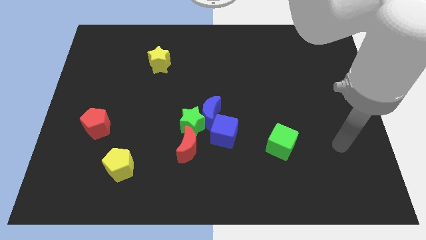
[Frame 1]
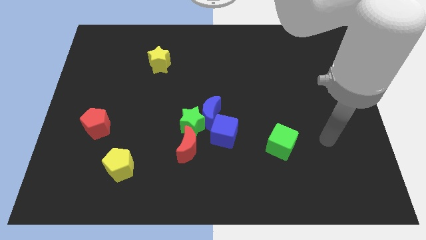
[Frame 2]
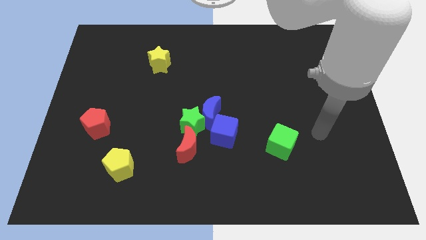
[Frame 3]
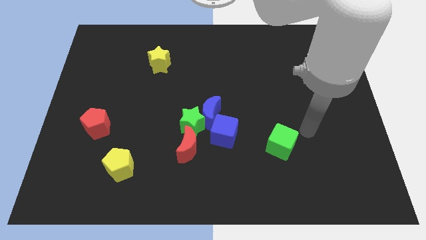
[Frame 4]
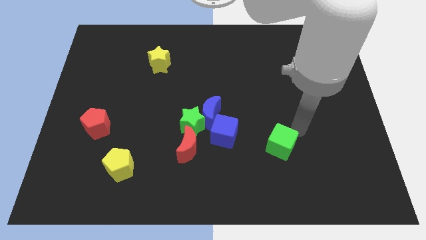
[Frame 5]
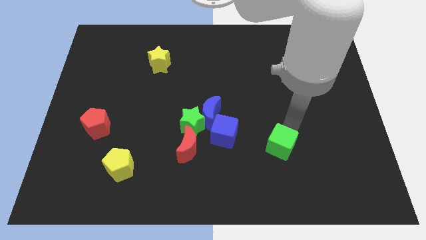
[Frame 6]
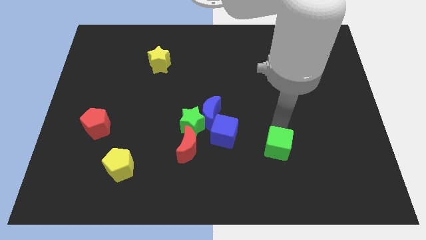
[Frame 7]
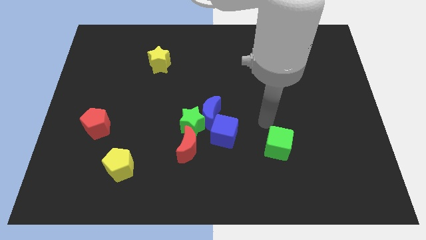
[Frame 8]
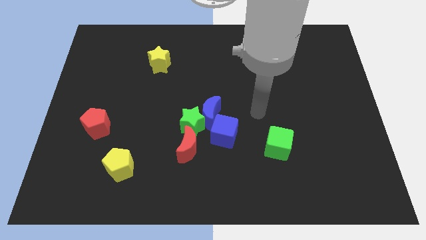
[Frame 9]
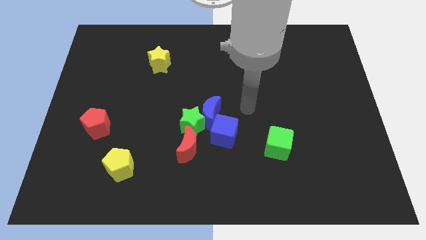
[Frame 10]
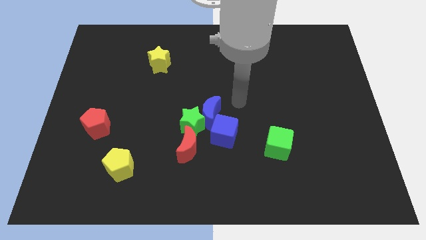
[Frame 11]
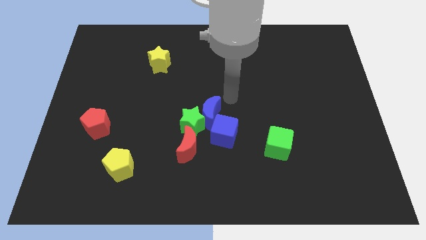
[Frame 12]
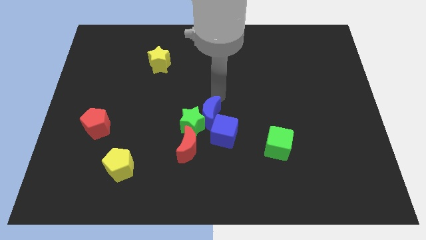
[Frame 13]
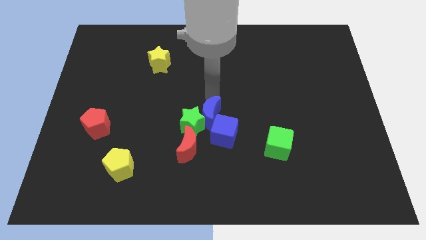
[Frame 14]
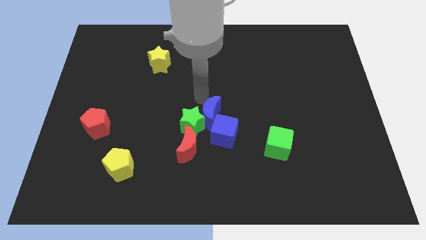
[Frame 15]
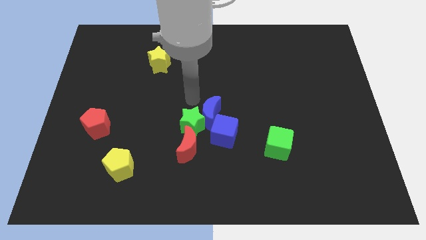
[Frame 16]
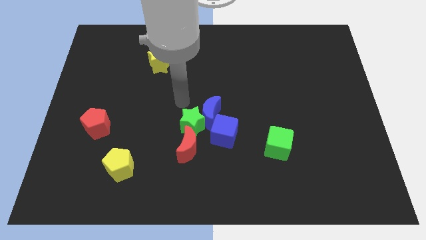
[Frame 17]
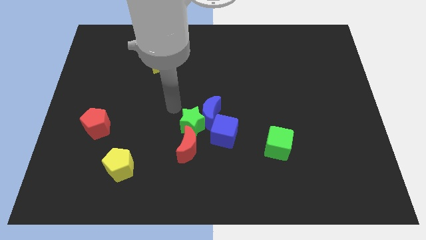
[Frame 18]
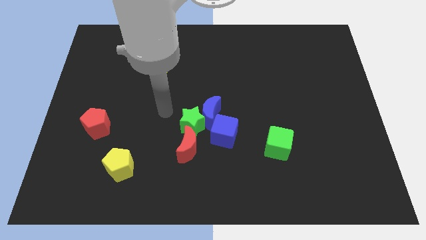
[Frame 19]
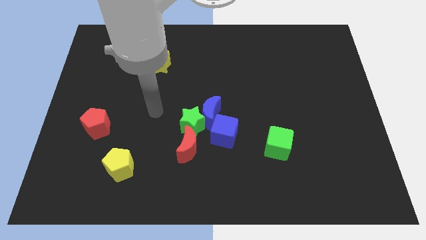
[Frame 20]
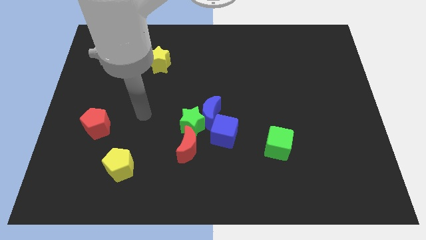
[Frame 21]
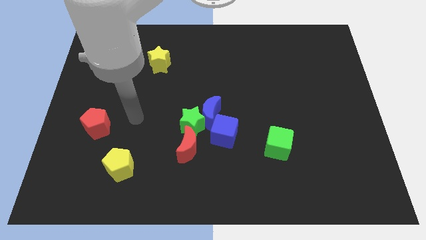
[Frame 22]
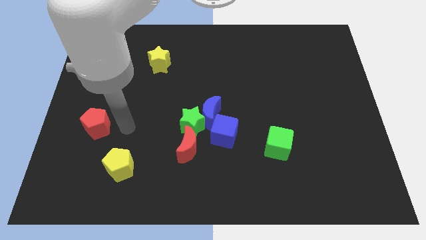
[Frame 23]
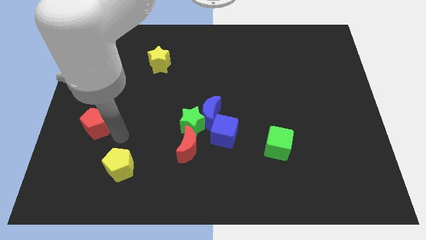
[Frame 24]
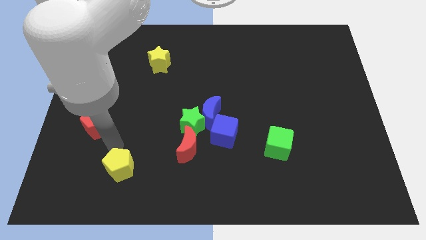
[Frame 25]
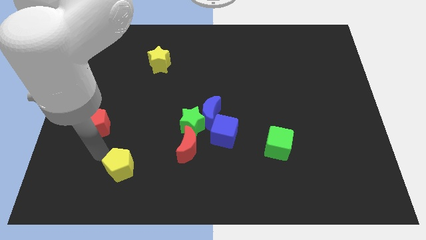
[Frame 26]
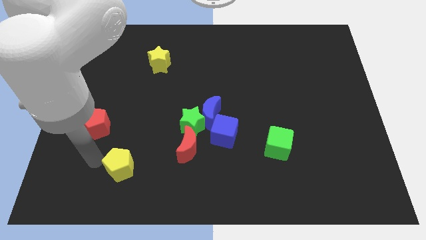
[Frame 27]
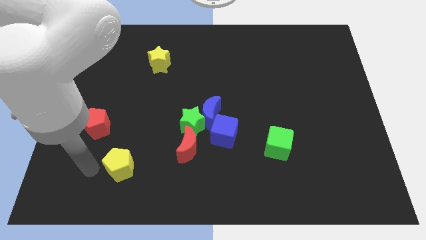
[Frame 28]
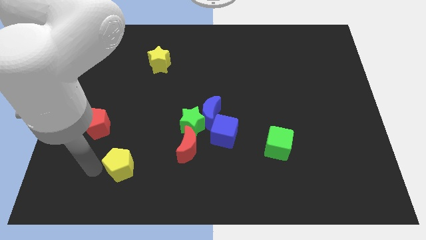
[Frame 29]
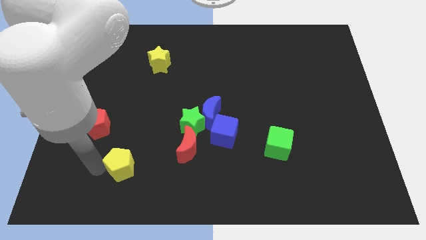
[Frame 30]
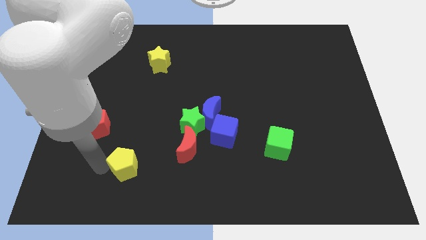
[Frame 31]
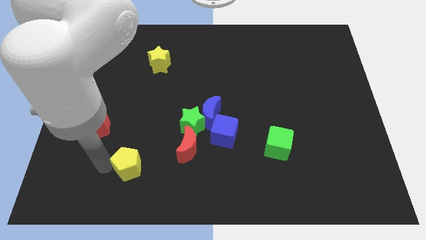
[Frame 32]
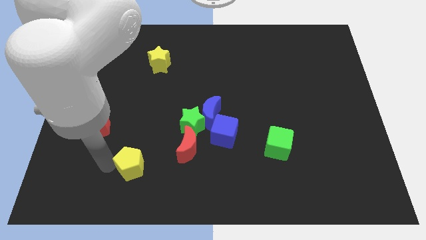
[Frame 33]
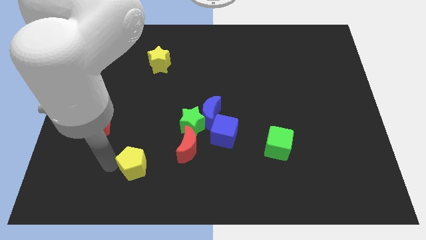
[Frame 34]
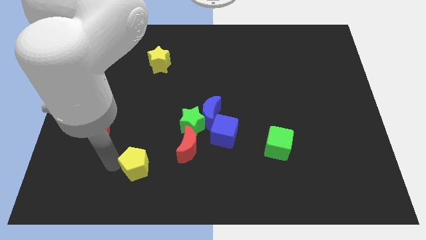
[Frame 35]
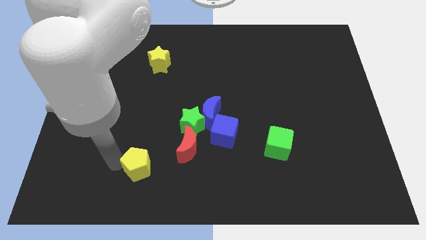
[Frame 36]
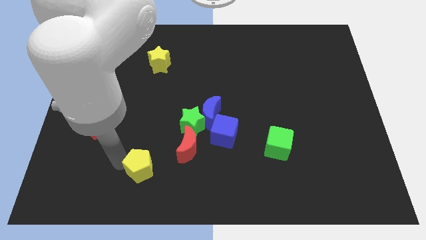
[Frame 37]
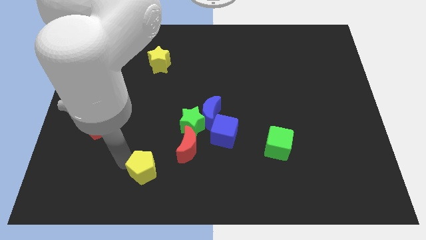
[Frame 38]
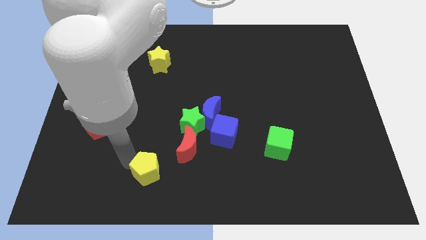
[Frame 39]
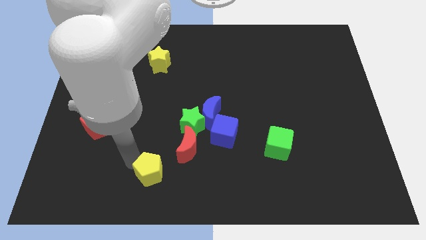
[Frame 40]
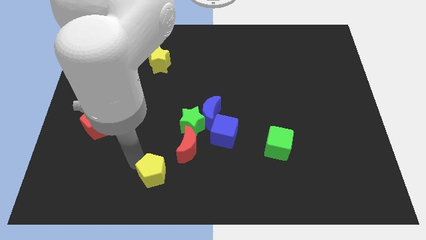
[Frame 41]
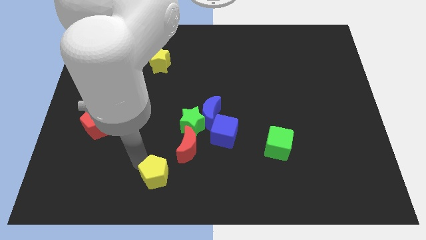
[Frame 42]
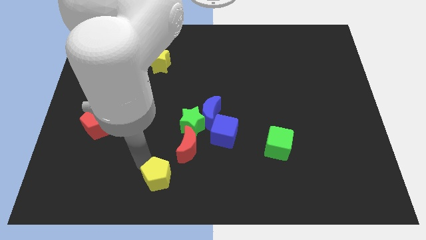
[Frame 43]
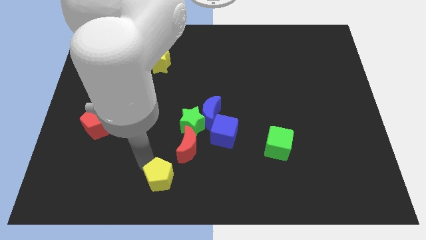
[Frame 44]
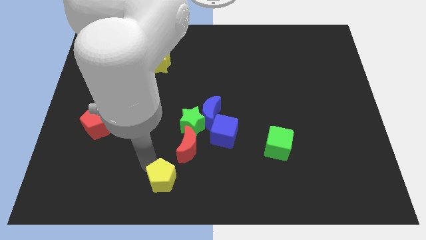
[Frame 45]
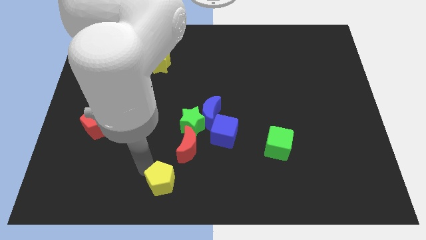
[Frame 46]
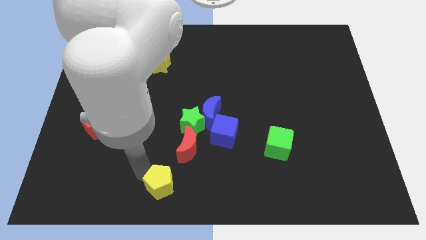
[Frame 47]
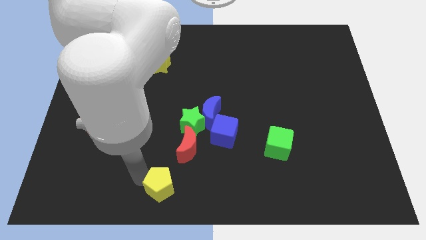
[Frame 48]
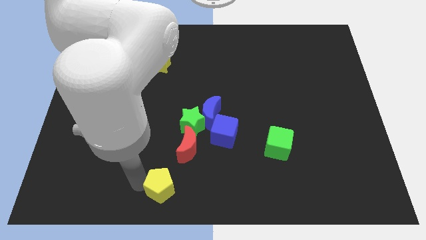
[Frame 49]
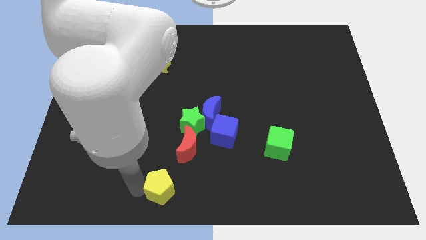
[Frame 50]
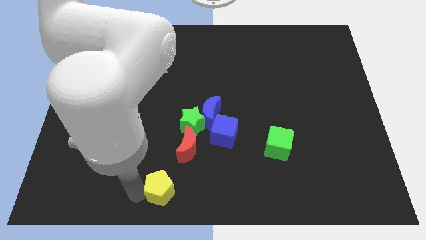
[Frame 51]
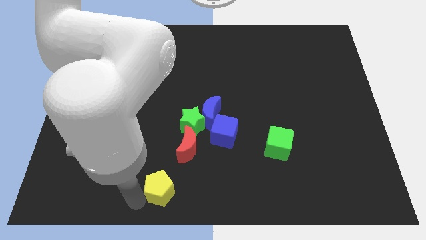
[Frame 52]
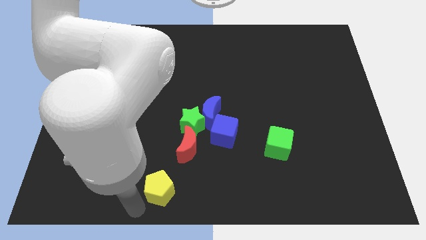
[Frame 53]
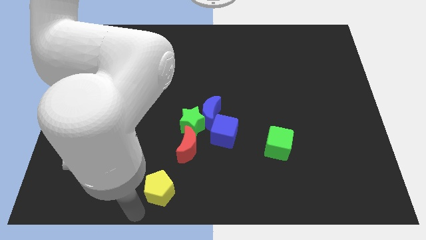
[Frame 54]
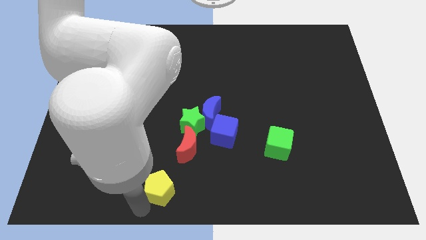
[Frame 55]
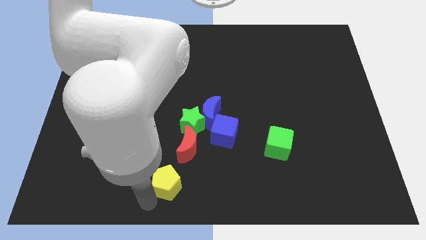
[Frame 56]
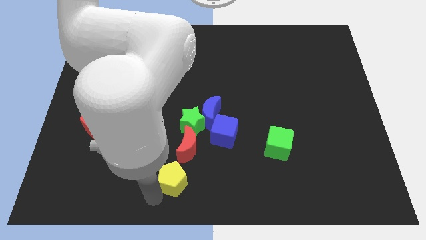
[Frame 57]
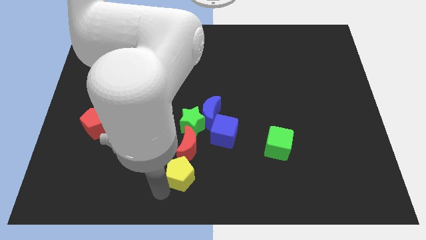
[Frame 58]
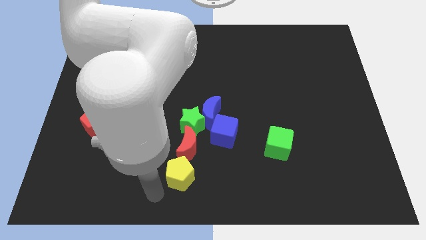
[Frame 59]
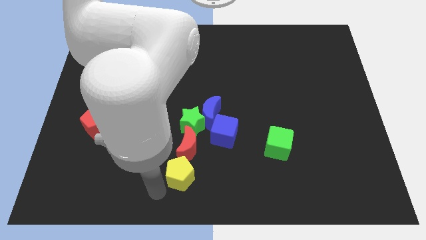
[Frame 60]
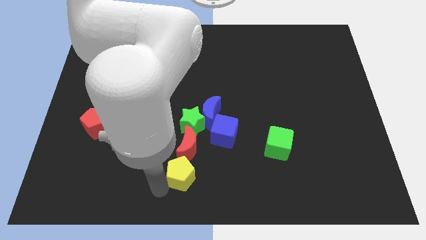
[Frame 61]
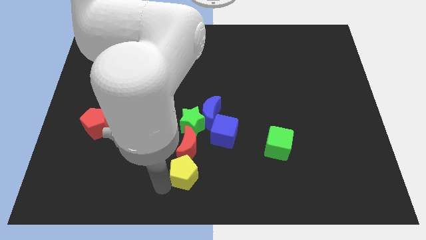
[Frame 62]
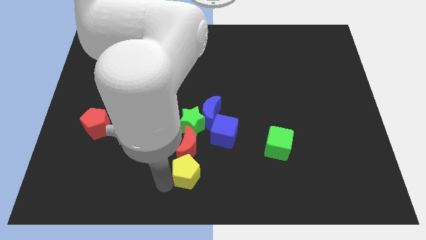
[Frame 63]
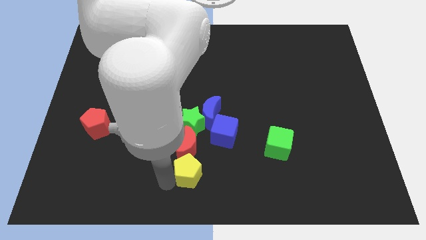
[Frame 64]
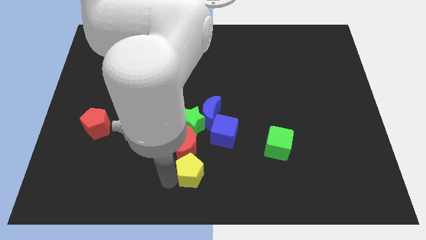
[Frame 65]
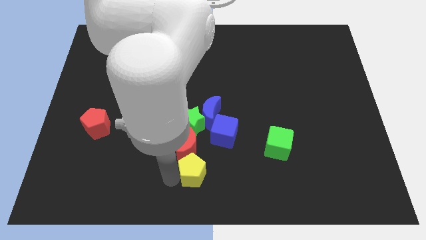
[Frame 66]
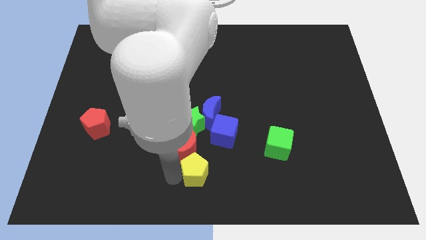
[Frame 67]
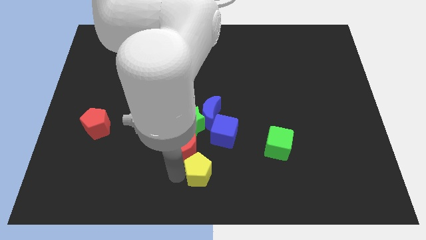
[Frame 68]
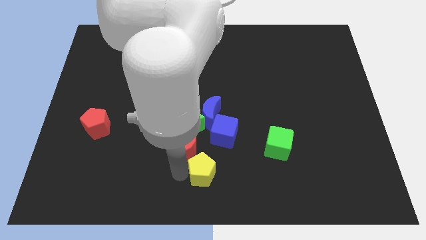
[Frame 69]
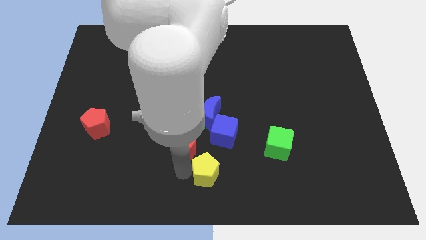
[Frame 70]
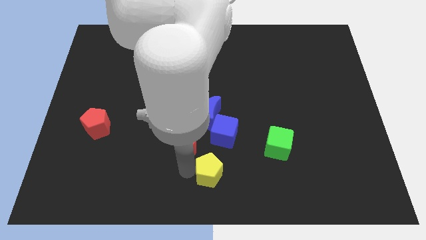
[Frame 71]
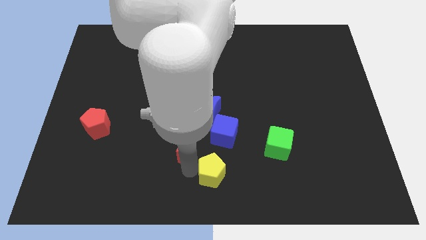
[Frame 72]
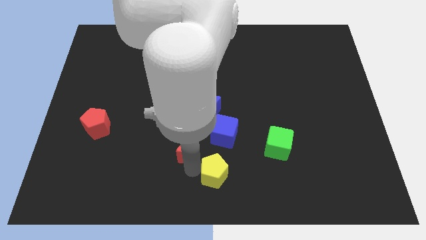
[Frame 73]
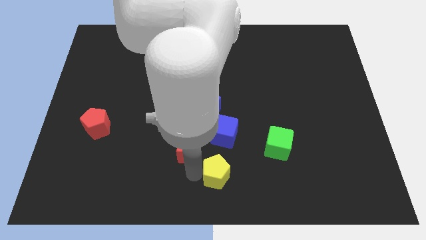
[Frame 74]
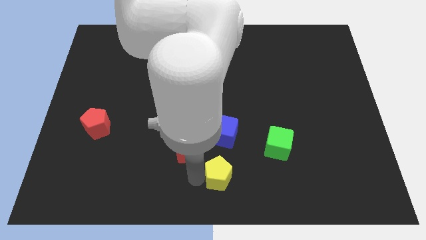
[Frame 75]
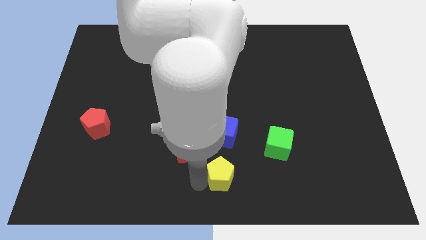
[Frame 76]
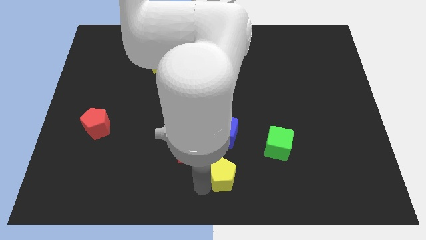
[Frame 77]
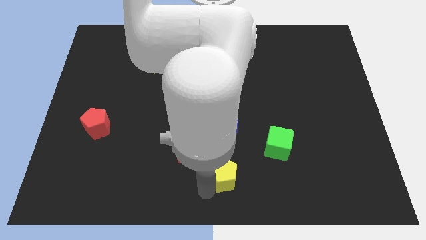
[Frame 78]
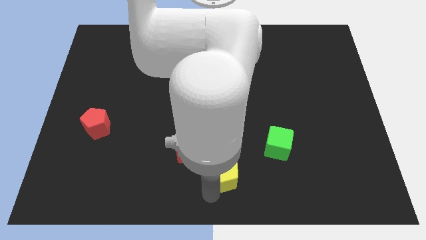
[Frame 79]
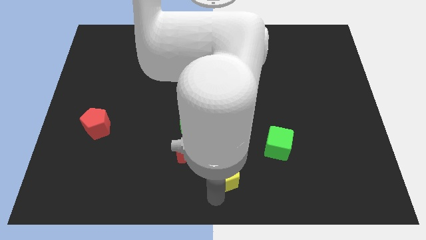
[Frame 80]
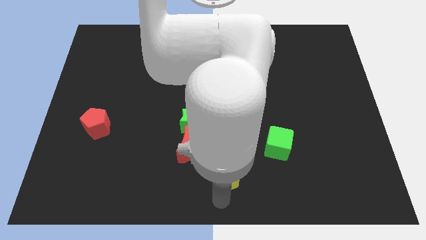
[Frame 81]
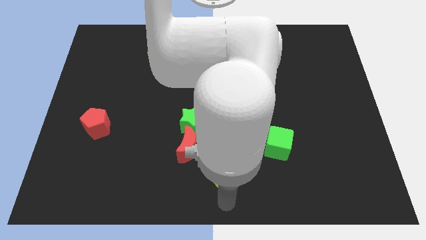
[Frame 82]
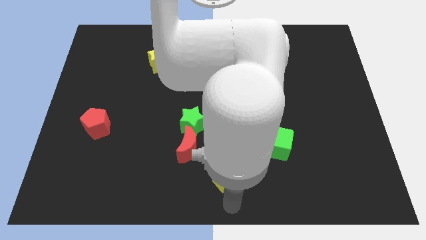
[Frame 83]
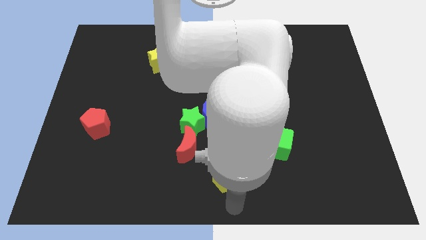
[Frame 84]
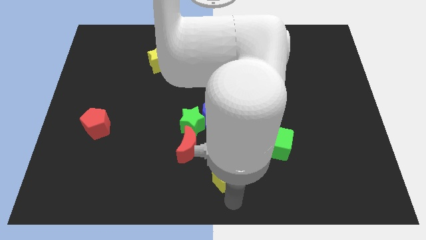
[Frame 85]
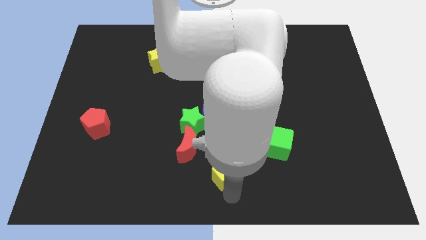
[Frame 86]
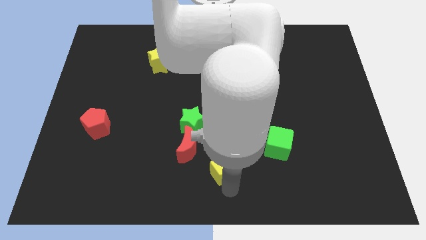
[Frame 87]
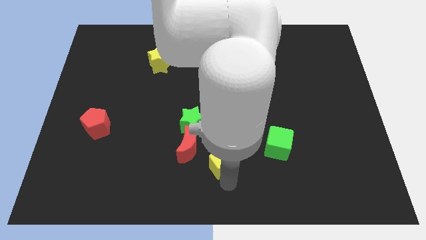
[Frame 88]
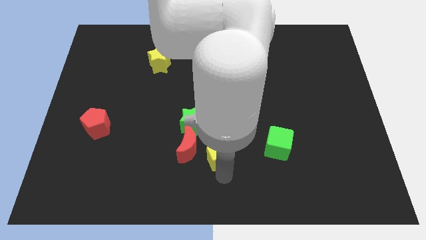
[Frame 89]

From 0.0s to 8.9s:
move the yellow pentagon to the bottom right of the blue cube
